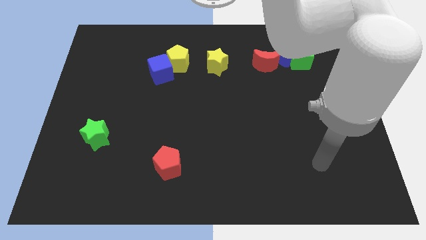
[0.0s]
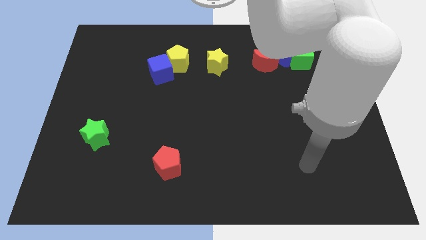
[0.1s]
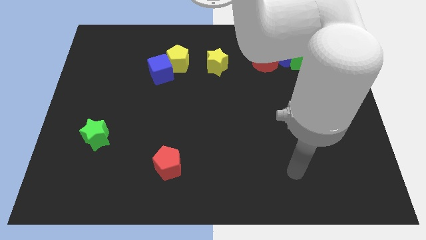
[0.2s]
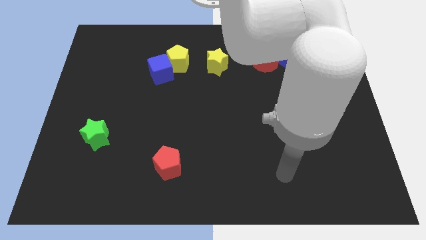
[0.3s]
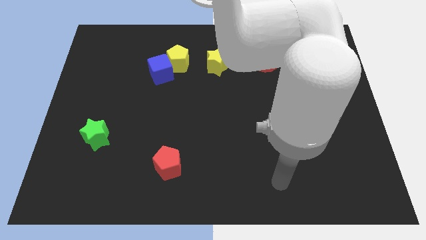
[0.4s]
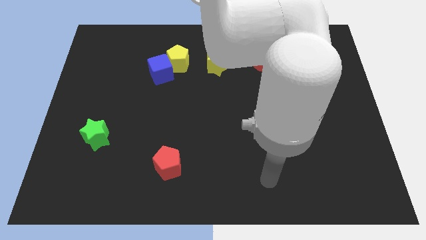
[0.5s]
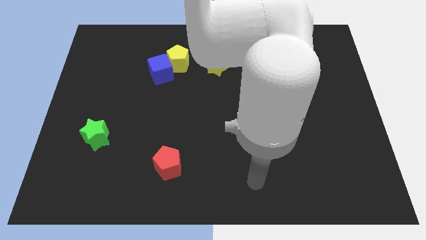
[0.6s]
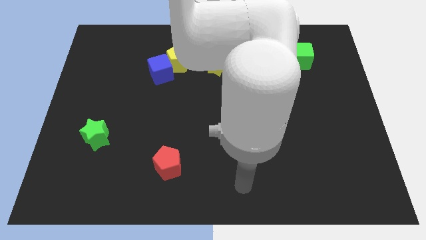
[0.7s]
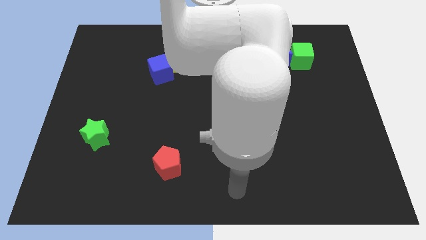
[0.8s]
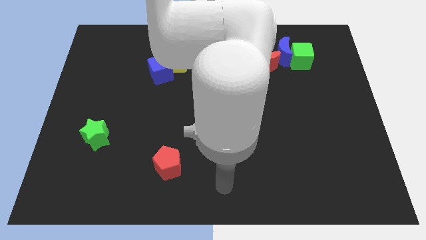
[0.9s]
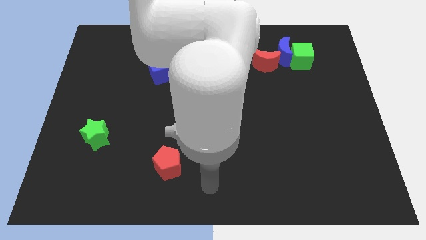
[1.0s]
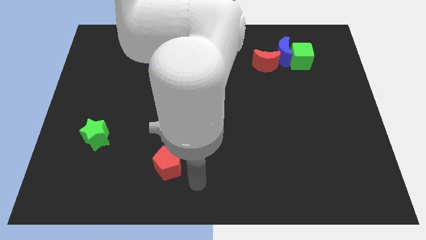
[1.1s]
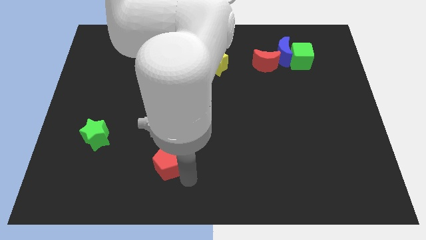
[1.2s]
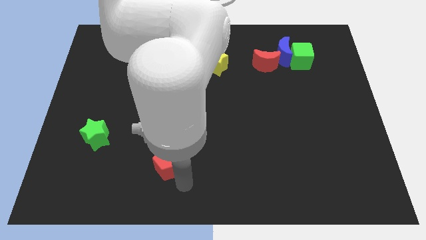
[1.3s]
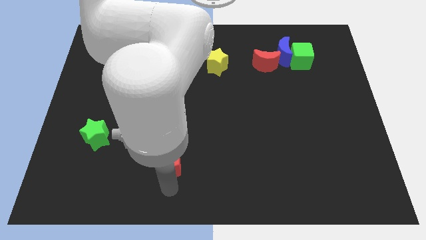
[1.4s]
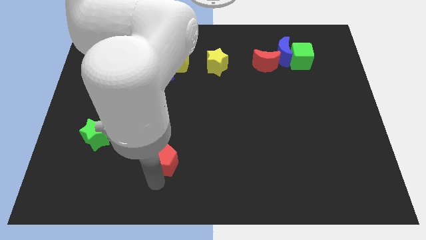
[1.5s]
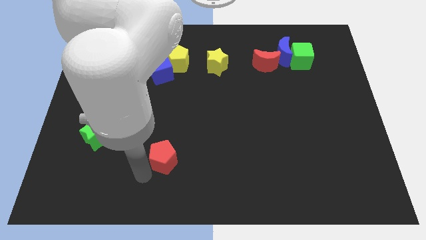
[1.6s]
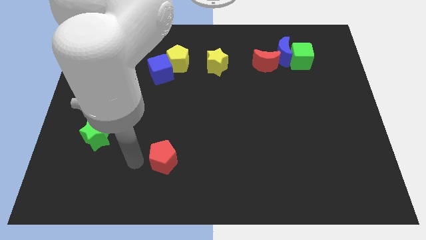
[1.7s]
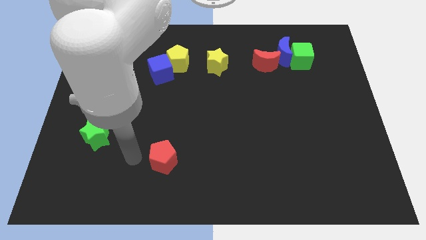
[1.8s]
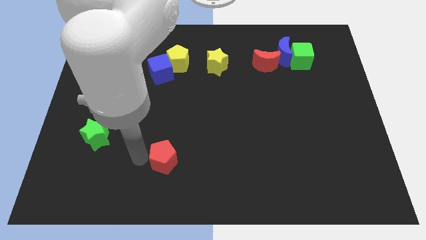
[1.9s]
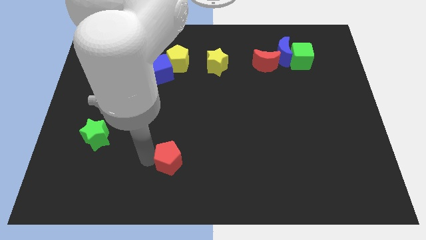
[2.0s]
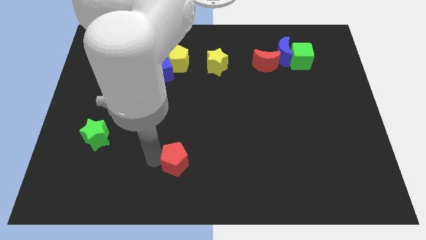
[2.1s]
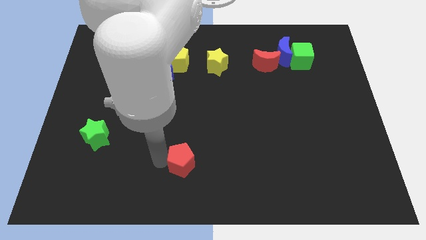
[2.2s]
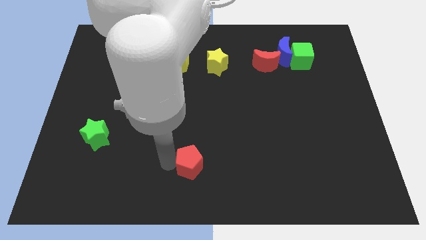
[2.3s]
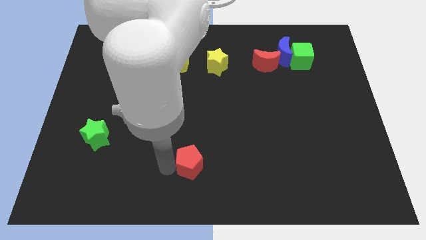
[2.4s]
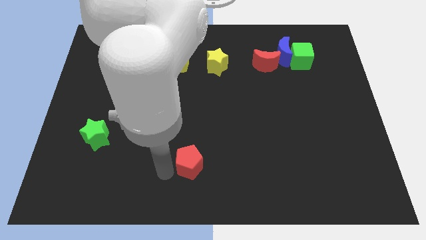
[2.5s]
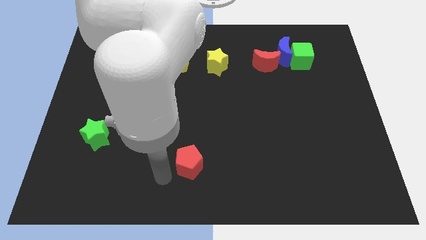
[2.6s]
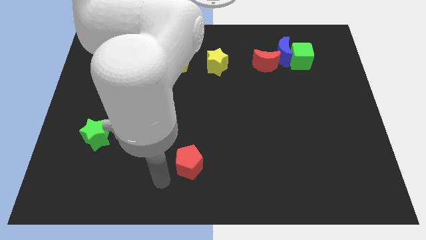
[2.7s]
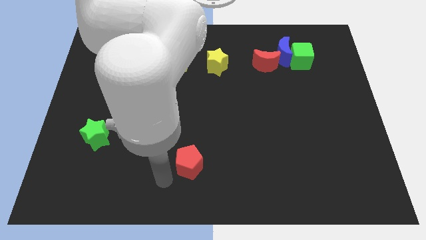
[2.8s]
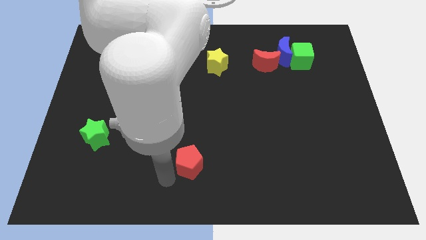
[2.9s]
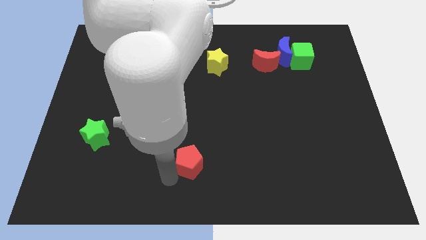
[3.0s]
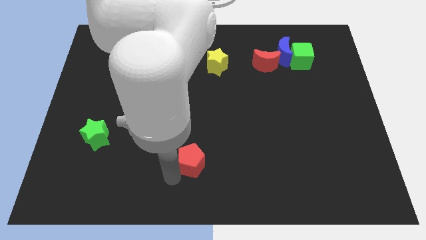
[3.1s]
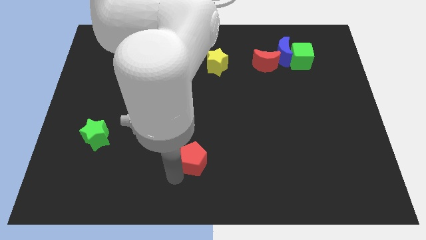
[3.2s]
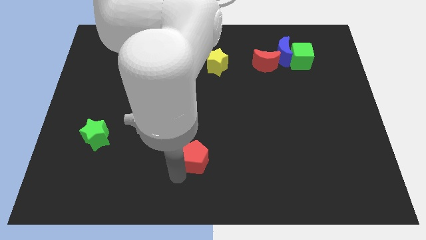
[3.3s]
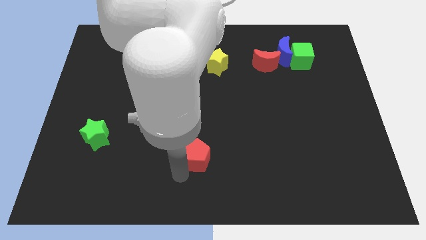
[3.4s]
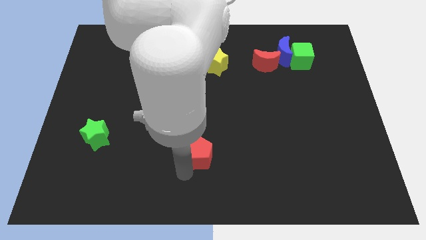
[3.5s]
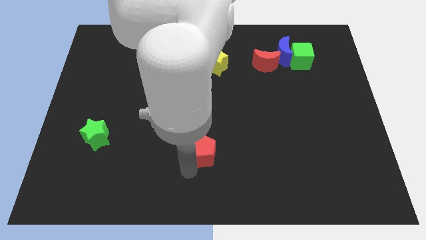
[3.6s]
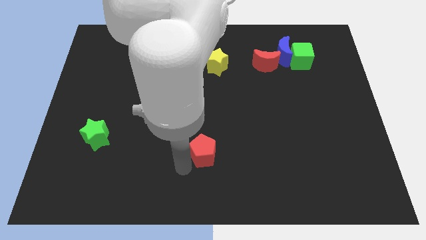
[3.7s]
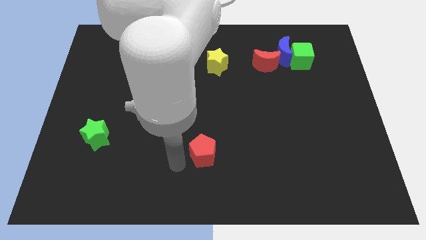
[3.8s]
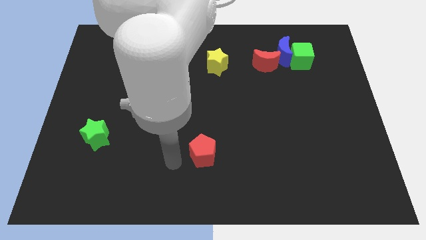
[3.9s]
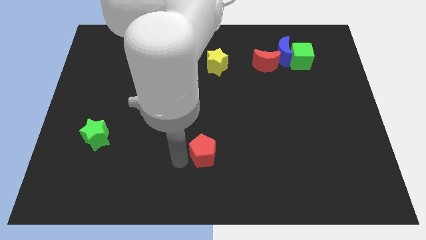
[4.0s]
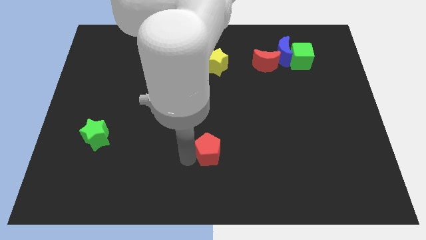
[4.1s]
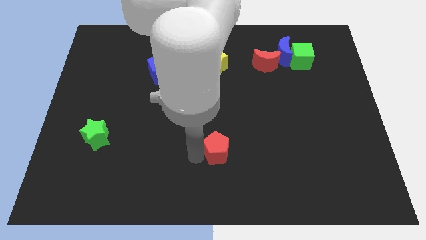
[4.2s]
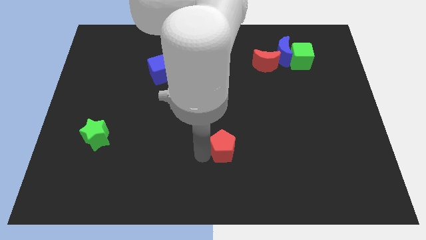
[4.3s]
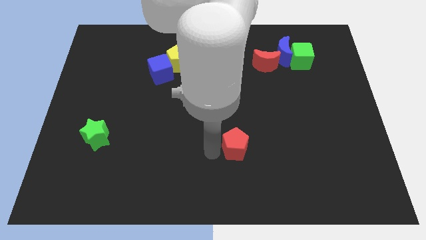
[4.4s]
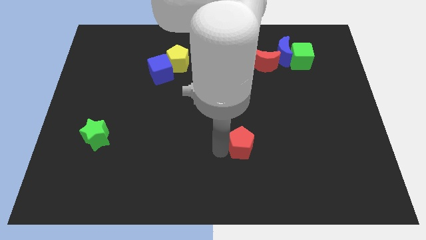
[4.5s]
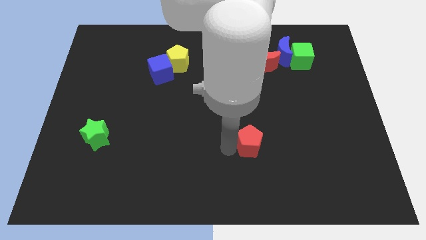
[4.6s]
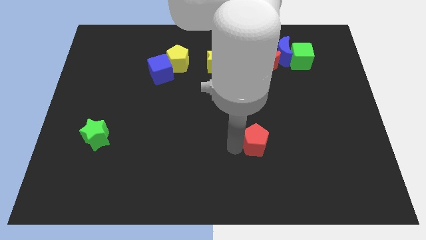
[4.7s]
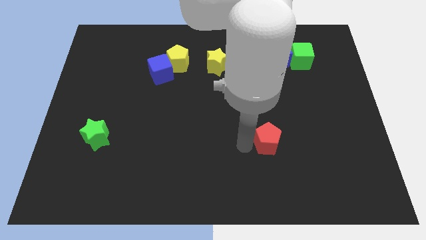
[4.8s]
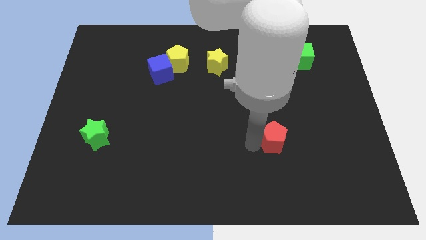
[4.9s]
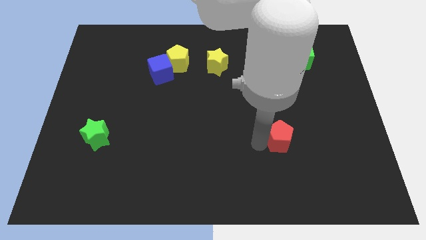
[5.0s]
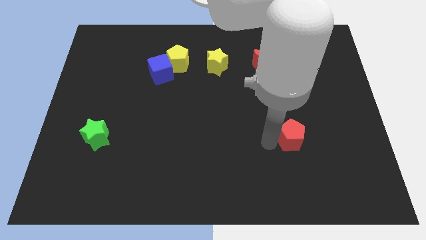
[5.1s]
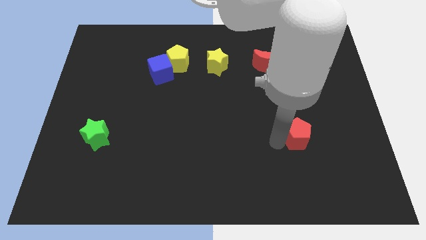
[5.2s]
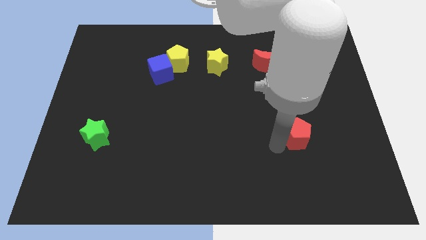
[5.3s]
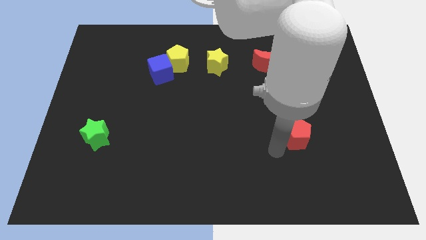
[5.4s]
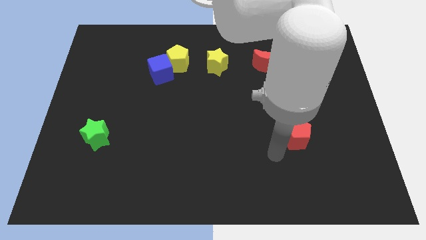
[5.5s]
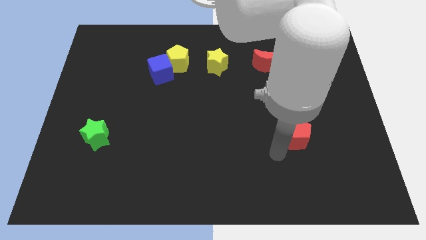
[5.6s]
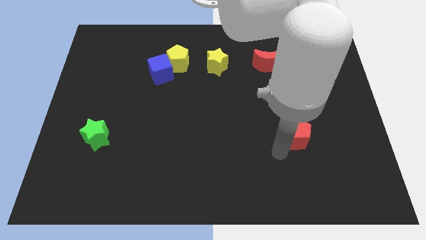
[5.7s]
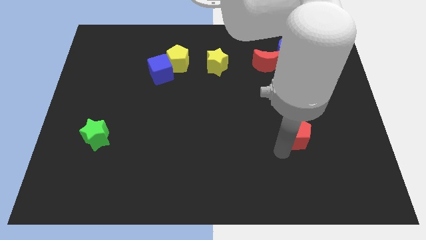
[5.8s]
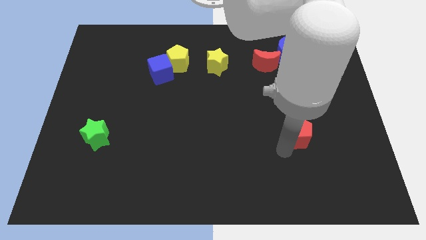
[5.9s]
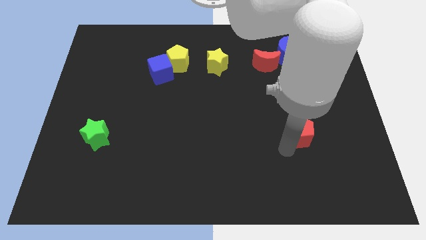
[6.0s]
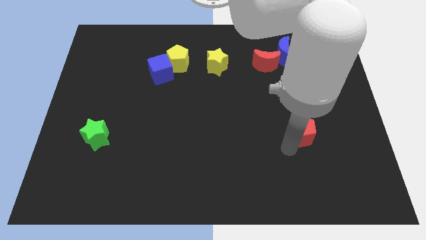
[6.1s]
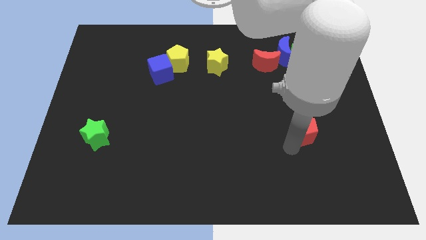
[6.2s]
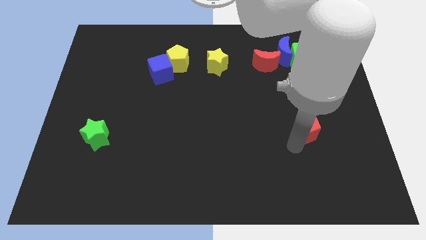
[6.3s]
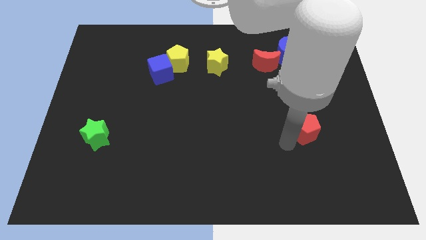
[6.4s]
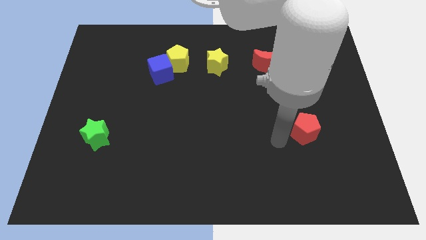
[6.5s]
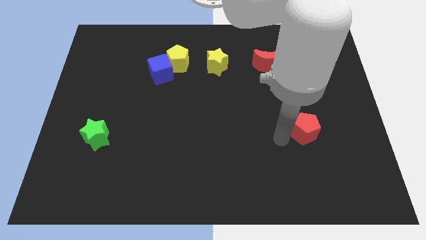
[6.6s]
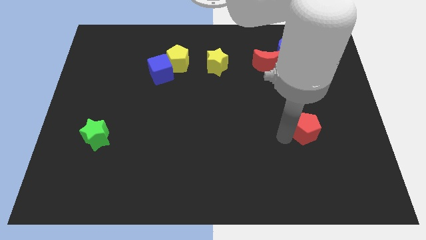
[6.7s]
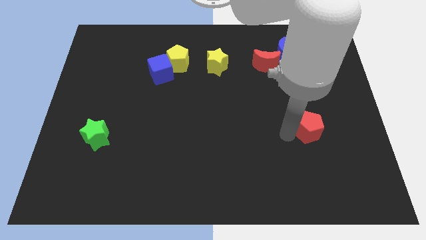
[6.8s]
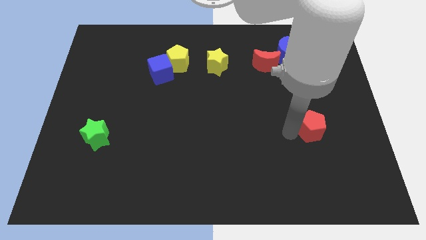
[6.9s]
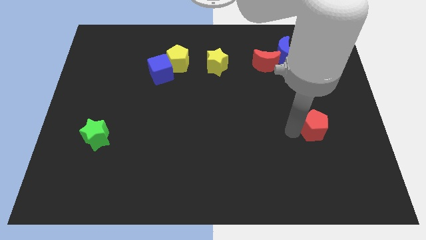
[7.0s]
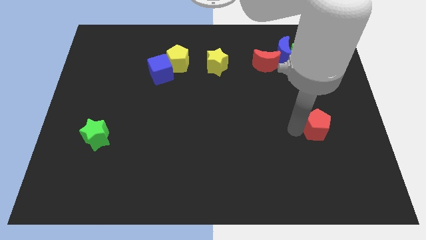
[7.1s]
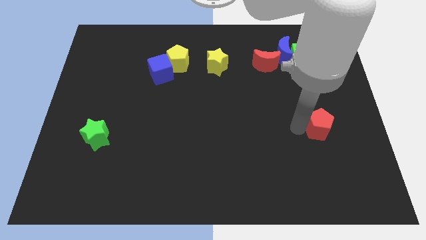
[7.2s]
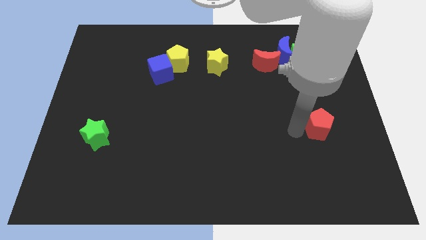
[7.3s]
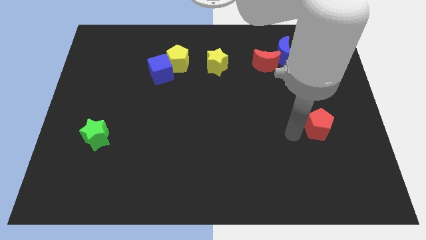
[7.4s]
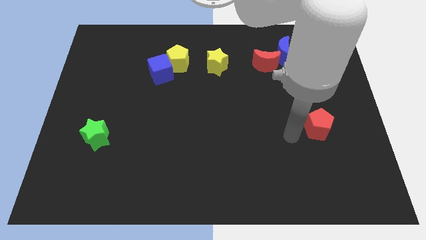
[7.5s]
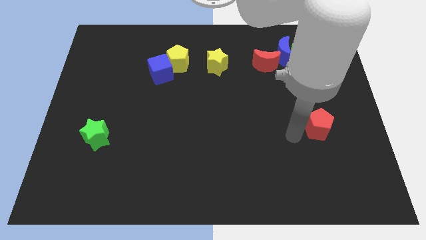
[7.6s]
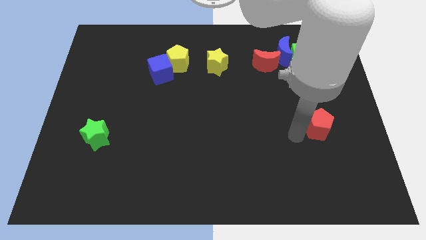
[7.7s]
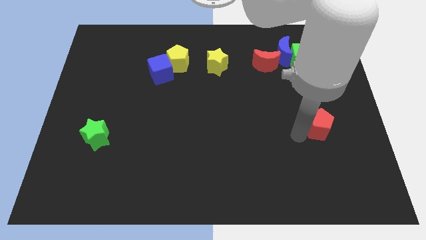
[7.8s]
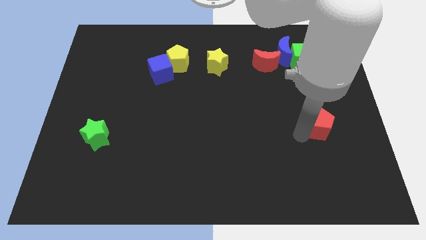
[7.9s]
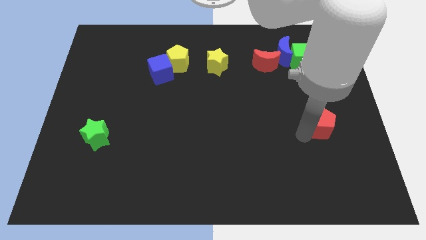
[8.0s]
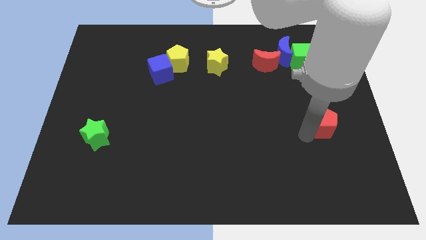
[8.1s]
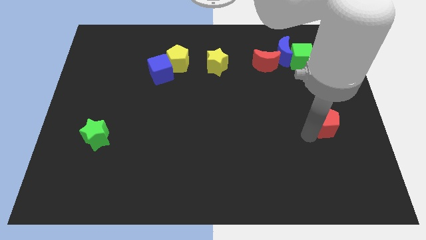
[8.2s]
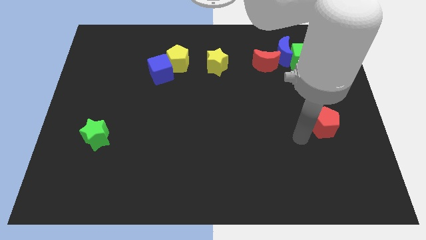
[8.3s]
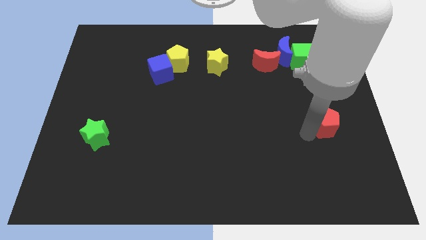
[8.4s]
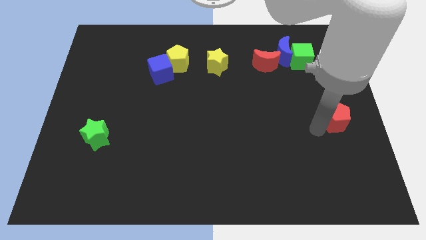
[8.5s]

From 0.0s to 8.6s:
push the red pentagon to the center right
